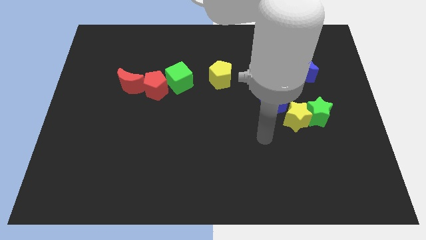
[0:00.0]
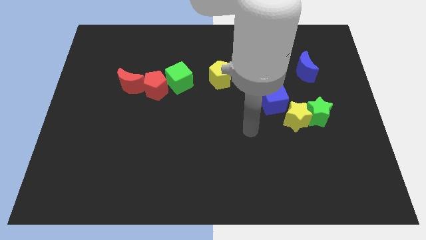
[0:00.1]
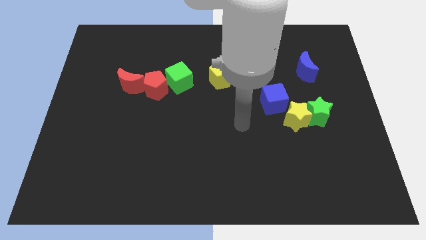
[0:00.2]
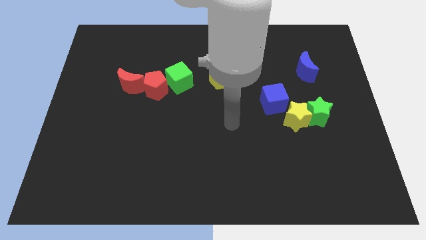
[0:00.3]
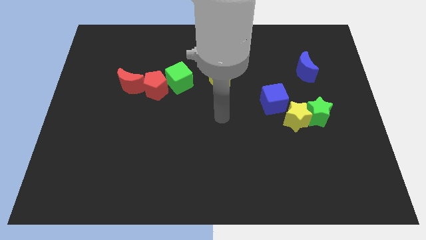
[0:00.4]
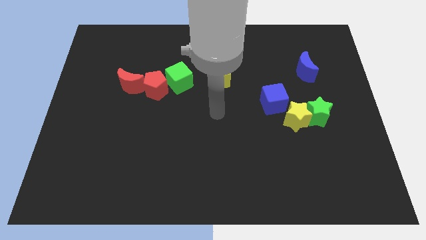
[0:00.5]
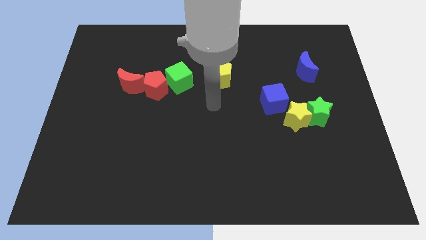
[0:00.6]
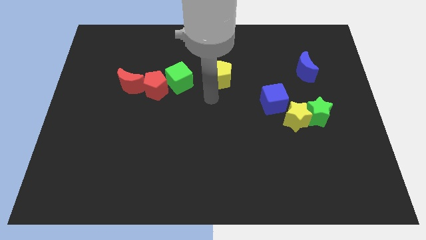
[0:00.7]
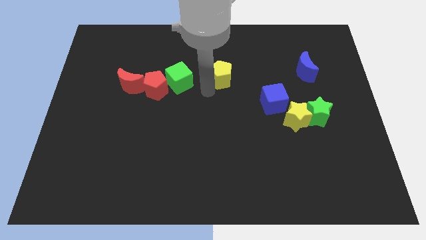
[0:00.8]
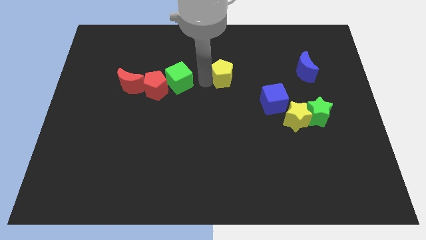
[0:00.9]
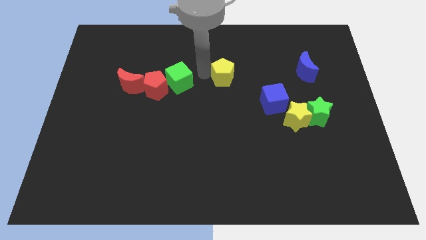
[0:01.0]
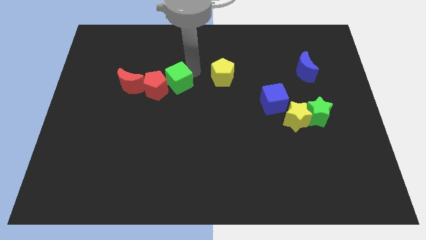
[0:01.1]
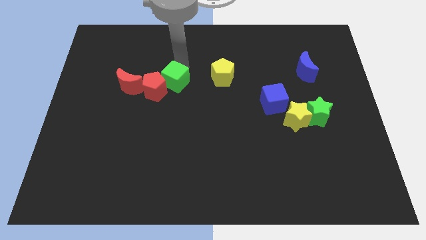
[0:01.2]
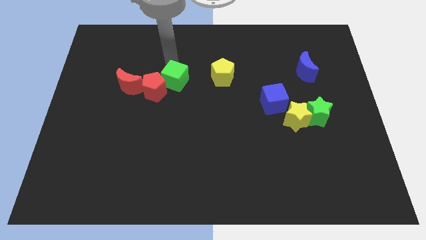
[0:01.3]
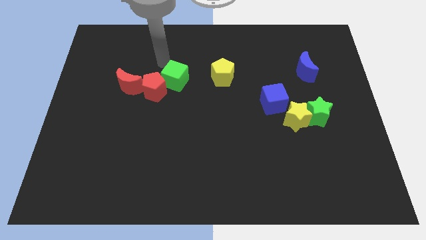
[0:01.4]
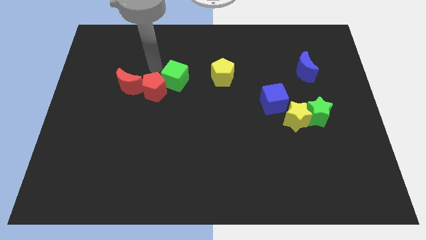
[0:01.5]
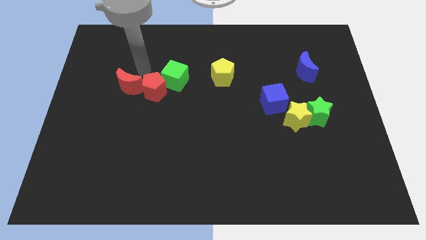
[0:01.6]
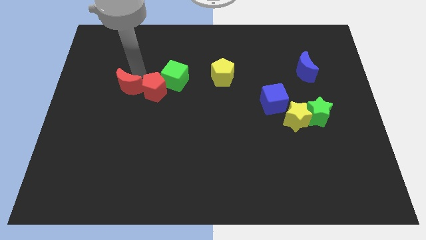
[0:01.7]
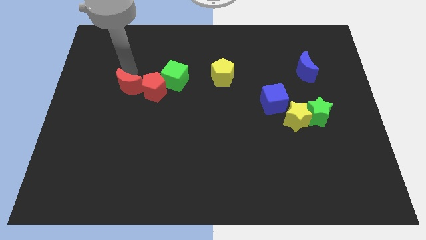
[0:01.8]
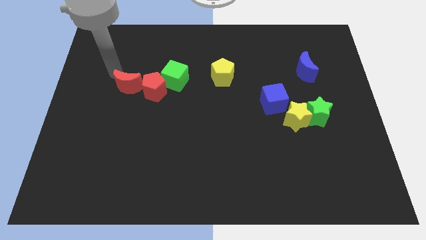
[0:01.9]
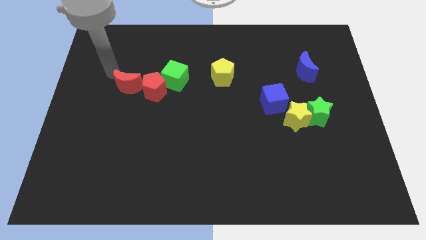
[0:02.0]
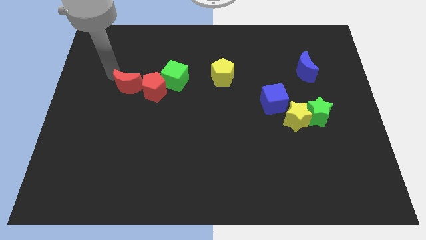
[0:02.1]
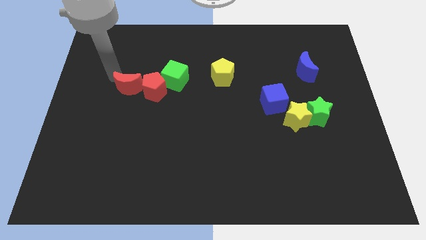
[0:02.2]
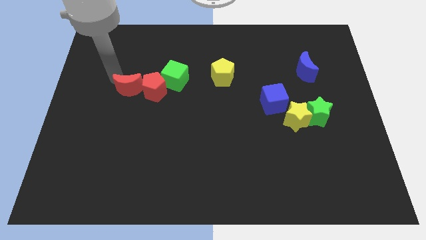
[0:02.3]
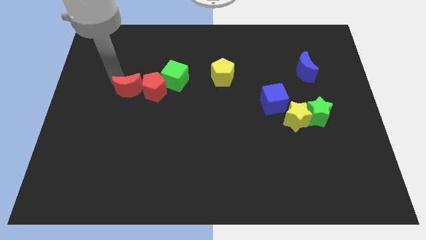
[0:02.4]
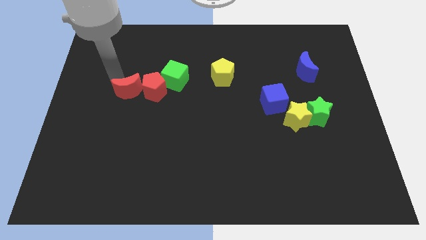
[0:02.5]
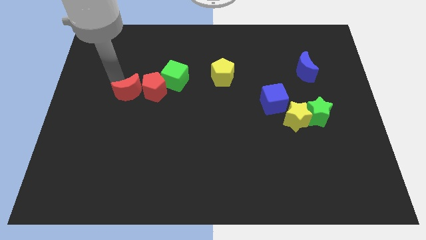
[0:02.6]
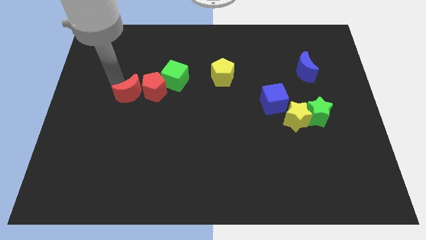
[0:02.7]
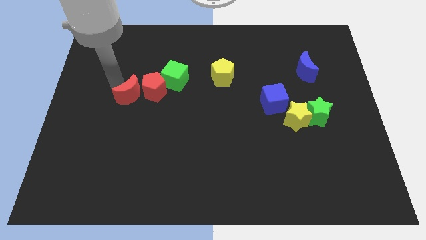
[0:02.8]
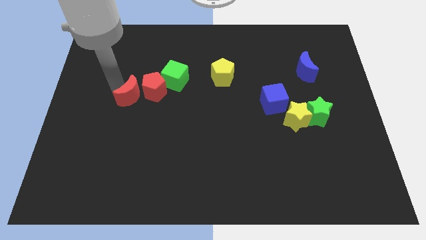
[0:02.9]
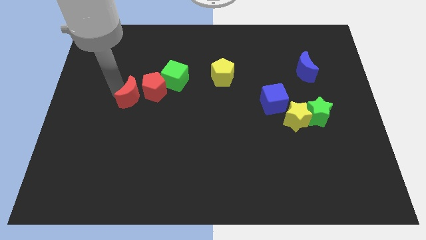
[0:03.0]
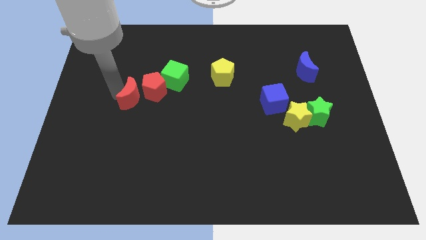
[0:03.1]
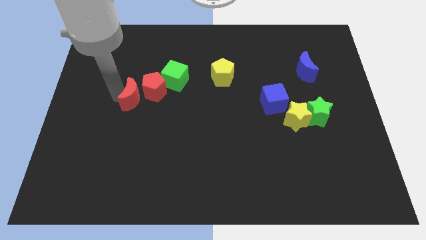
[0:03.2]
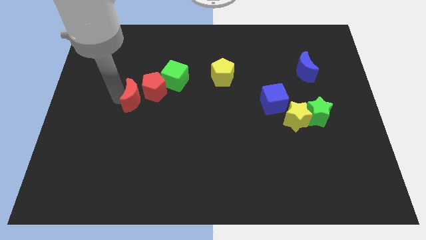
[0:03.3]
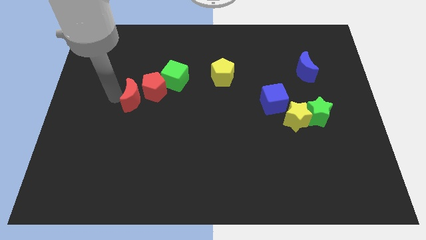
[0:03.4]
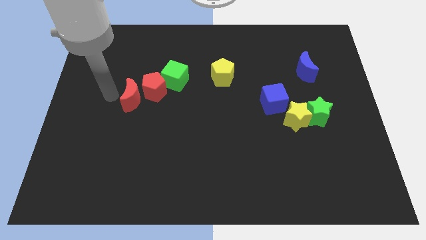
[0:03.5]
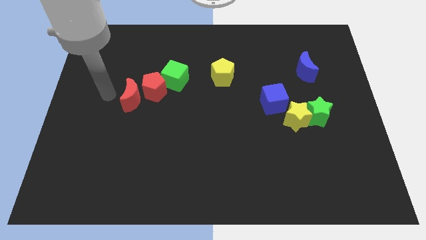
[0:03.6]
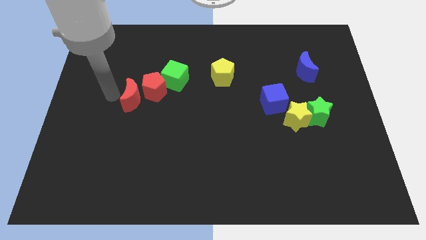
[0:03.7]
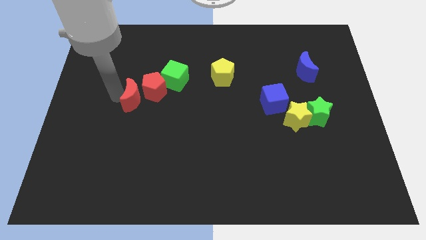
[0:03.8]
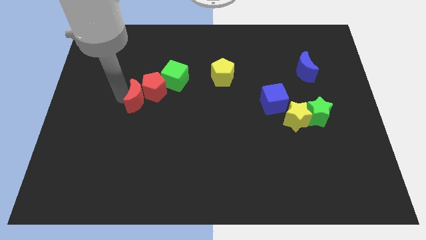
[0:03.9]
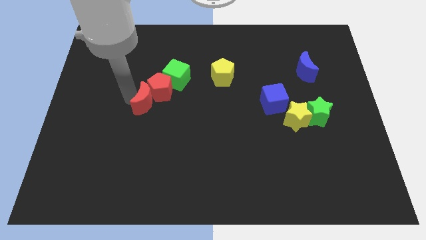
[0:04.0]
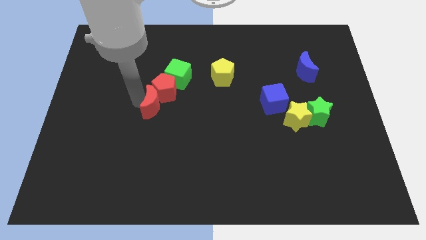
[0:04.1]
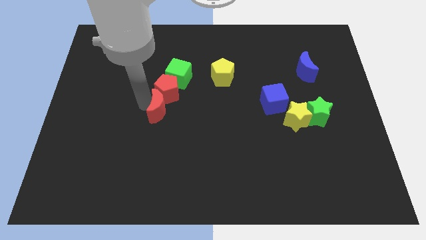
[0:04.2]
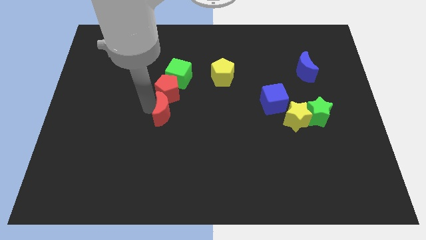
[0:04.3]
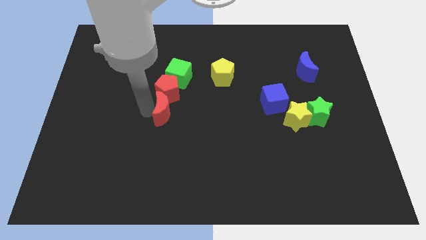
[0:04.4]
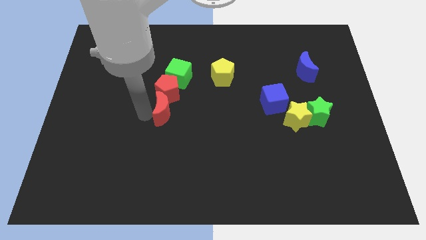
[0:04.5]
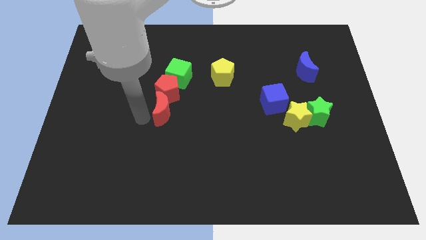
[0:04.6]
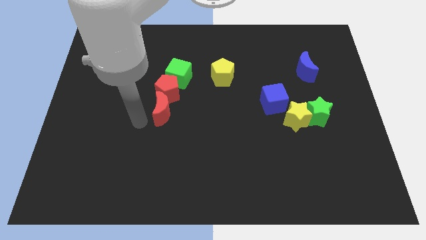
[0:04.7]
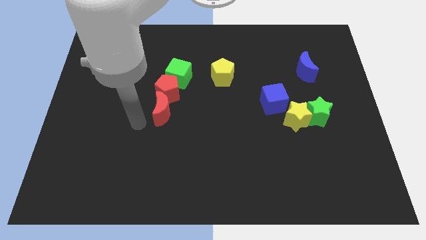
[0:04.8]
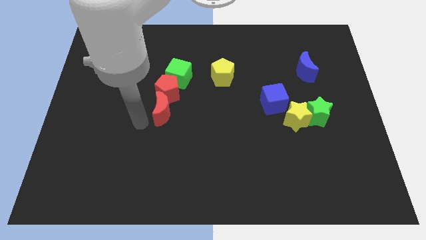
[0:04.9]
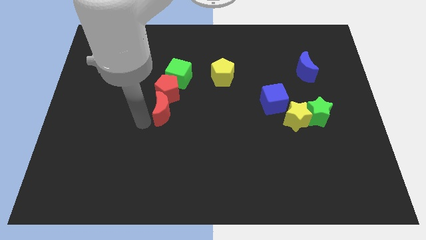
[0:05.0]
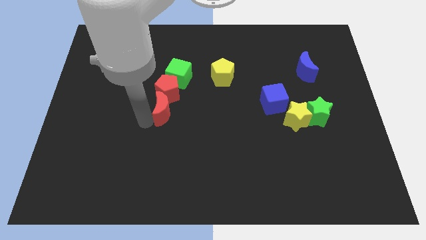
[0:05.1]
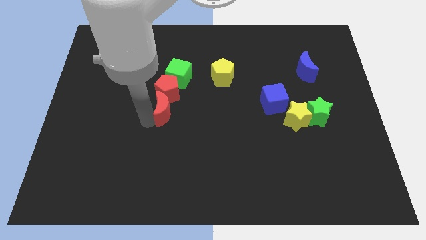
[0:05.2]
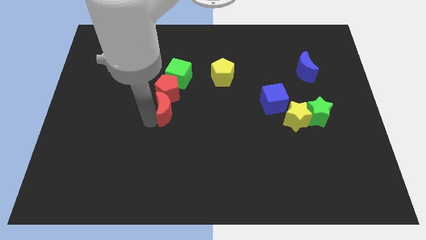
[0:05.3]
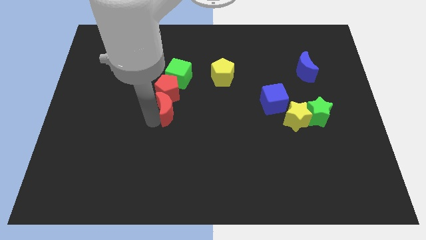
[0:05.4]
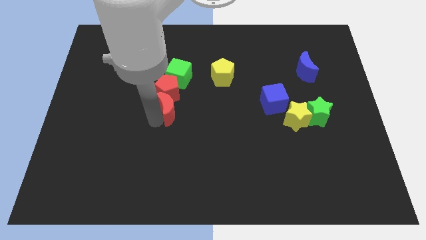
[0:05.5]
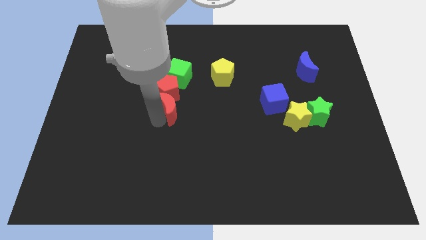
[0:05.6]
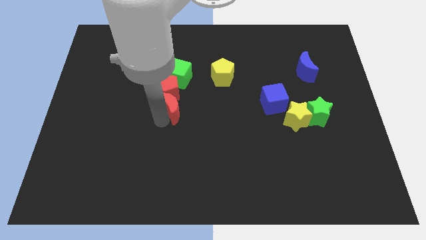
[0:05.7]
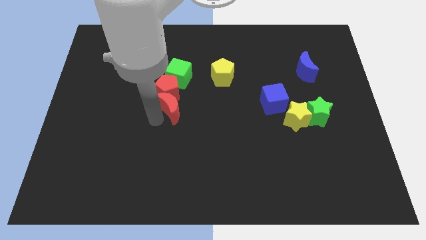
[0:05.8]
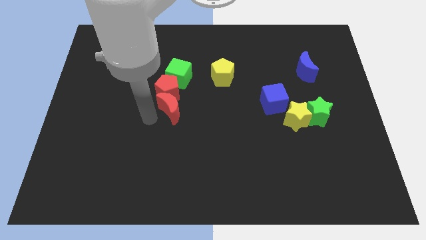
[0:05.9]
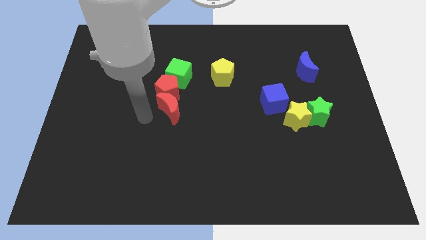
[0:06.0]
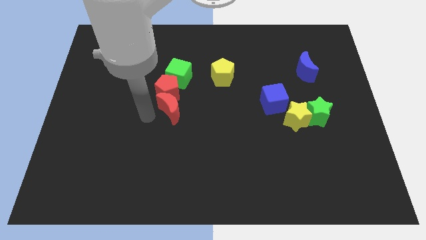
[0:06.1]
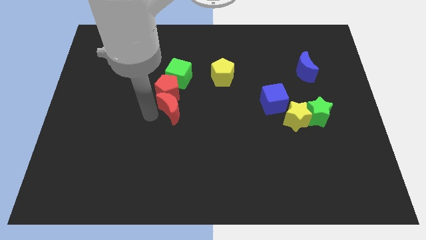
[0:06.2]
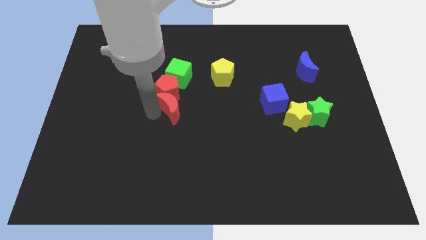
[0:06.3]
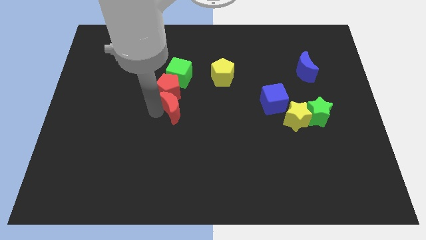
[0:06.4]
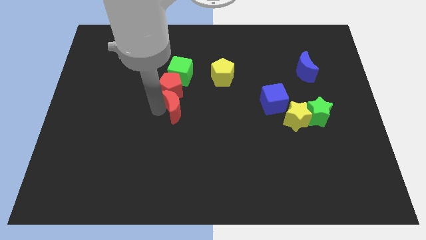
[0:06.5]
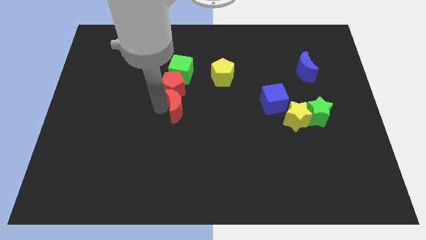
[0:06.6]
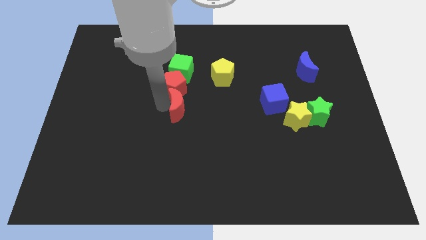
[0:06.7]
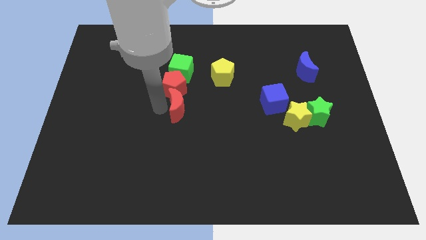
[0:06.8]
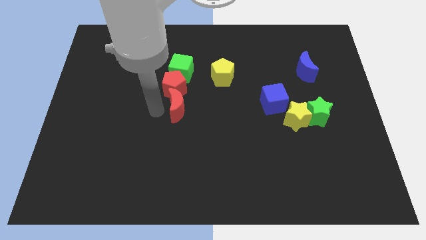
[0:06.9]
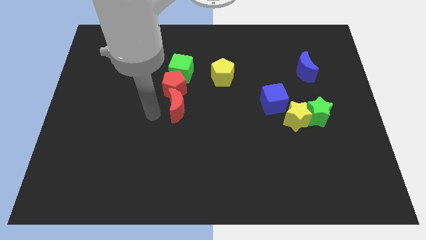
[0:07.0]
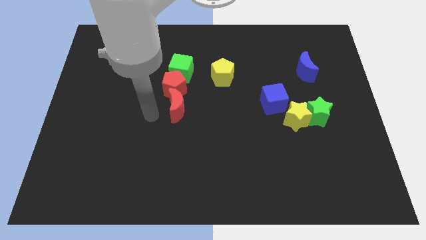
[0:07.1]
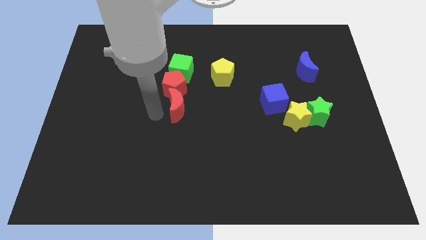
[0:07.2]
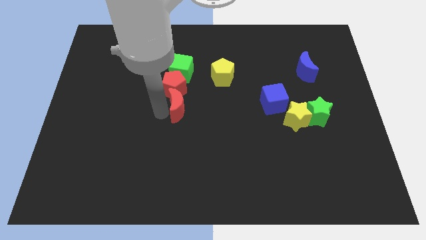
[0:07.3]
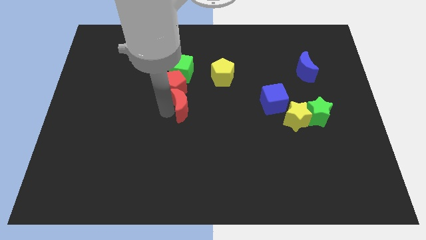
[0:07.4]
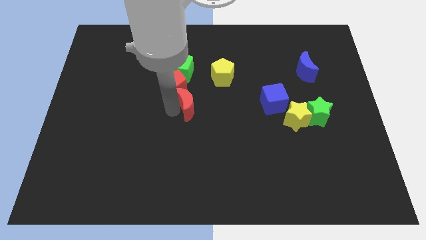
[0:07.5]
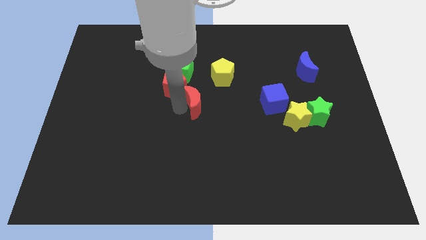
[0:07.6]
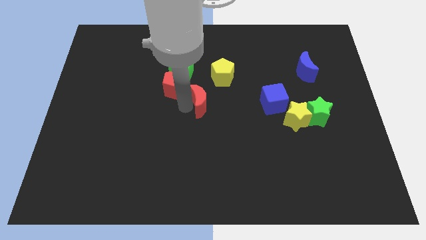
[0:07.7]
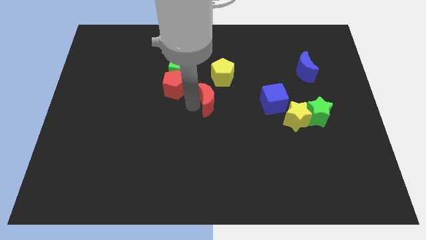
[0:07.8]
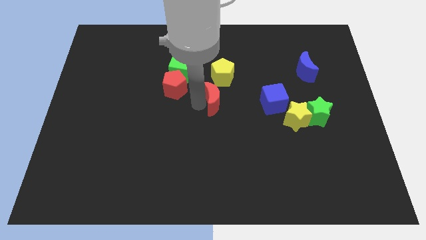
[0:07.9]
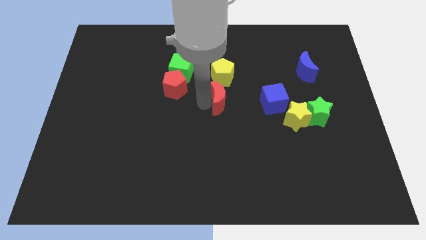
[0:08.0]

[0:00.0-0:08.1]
push the red moon to the right
